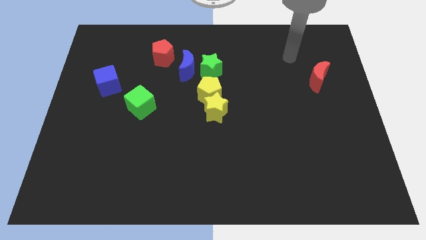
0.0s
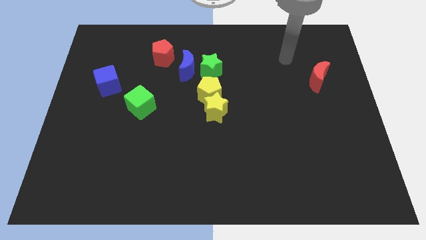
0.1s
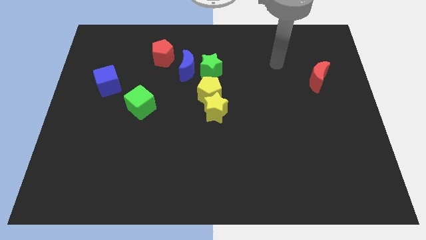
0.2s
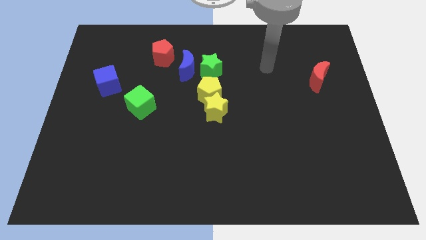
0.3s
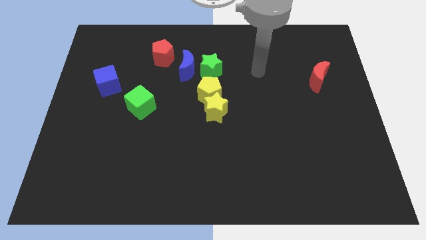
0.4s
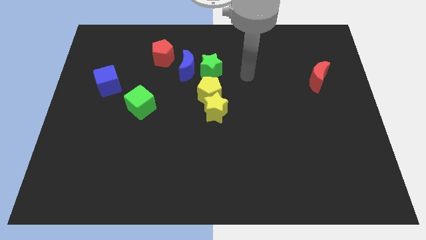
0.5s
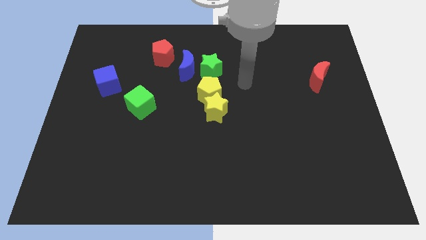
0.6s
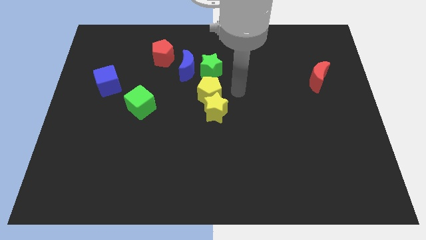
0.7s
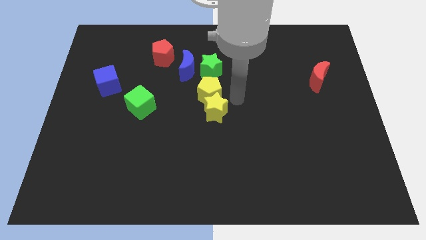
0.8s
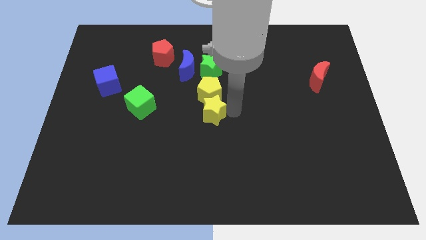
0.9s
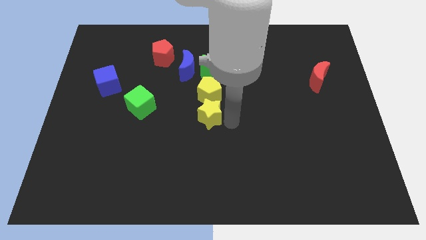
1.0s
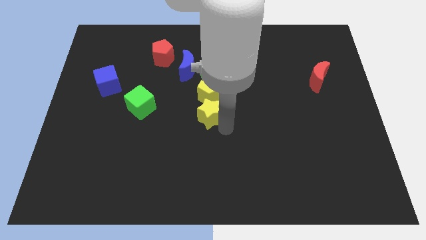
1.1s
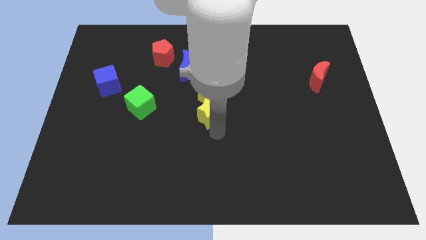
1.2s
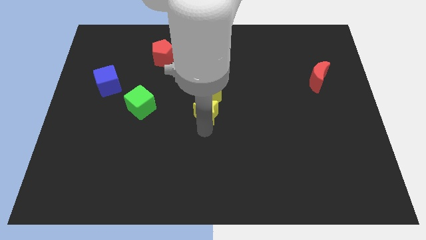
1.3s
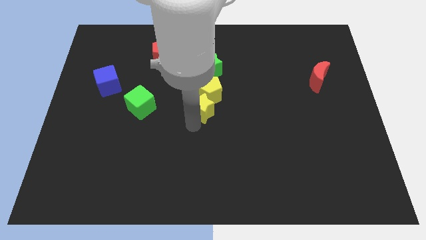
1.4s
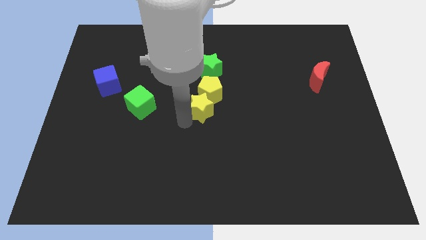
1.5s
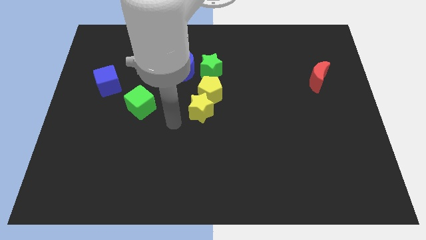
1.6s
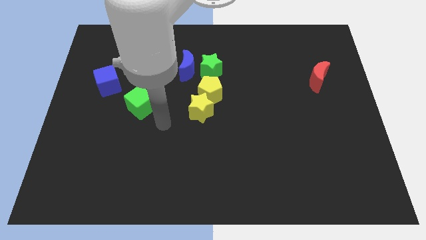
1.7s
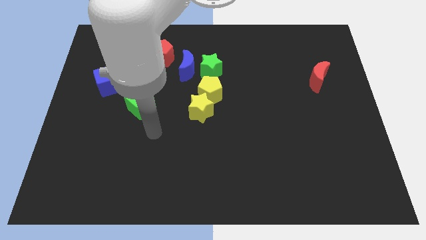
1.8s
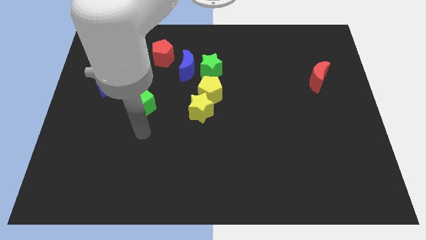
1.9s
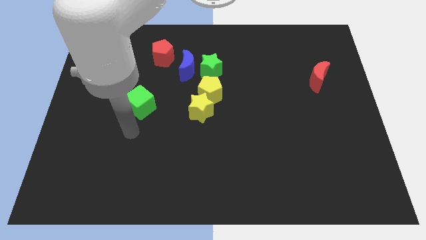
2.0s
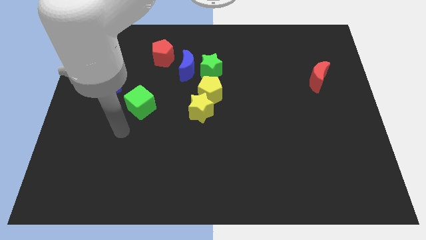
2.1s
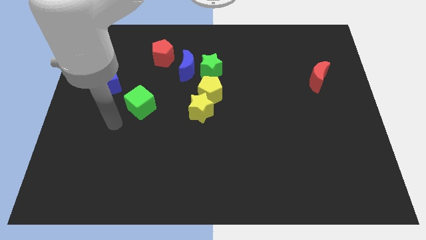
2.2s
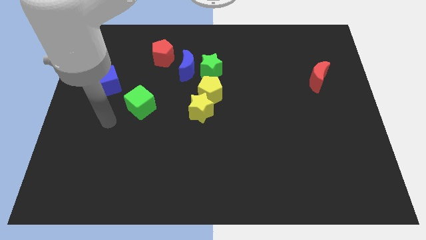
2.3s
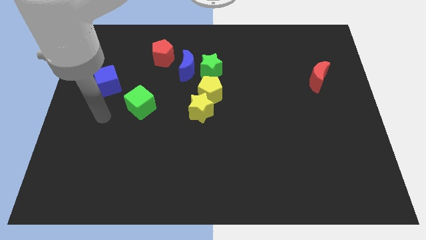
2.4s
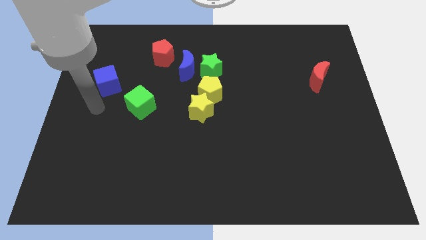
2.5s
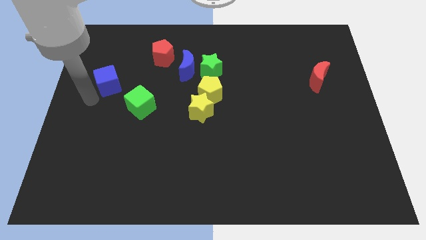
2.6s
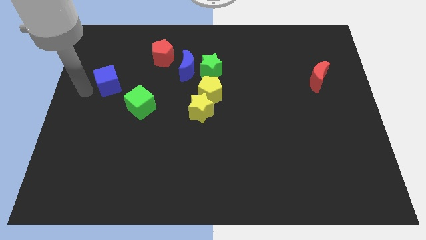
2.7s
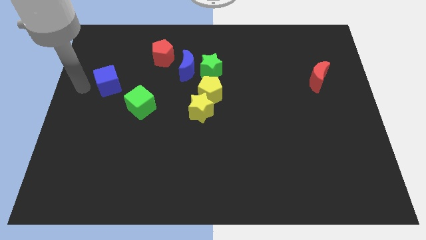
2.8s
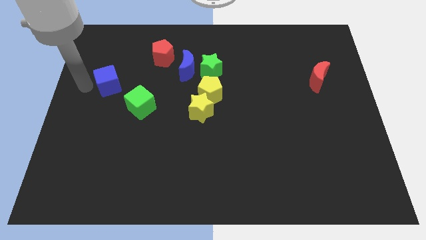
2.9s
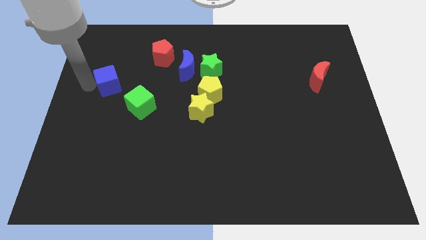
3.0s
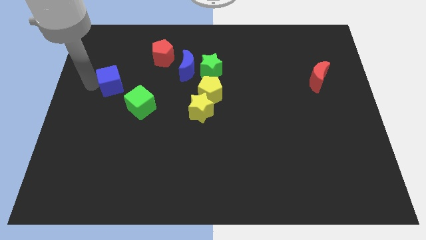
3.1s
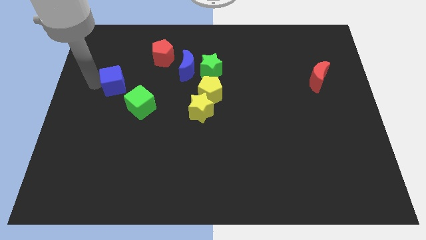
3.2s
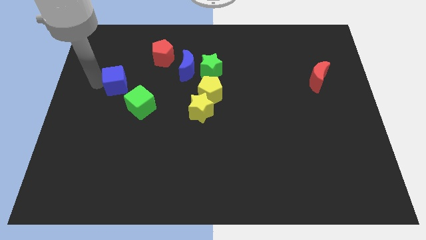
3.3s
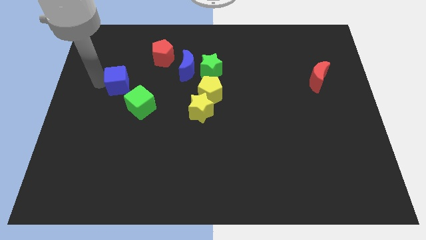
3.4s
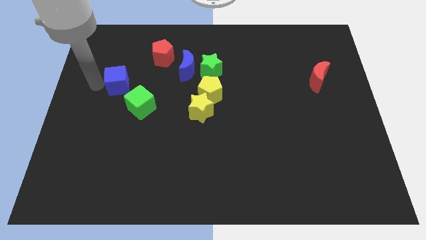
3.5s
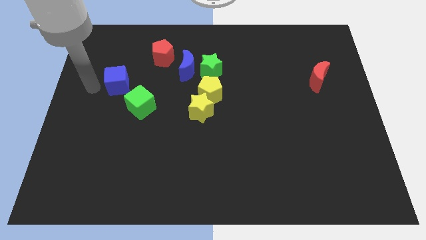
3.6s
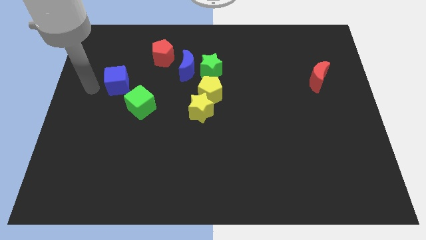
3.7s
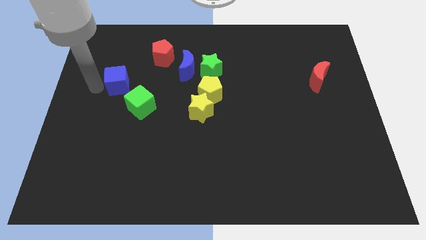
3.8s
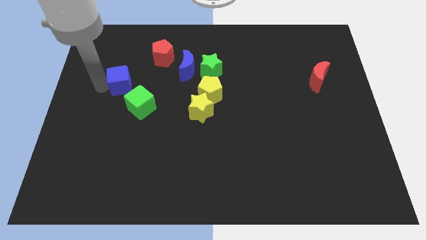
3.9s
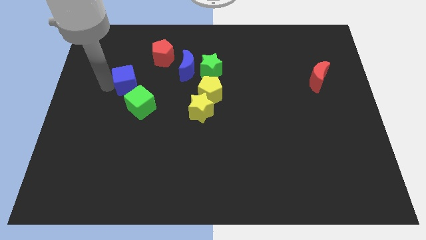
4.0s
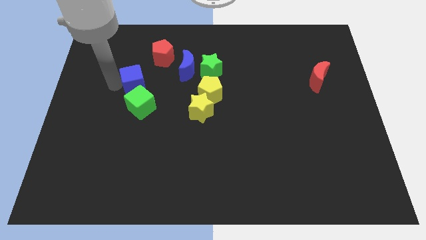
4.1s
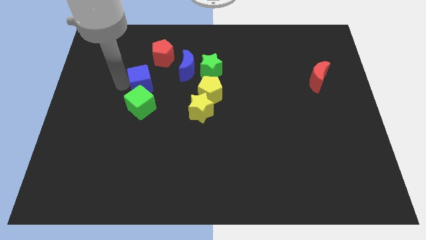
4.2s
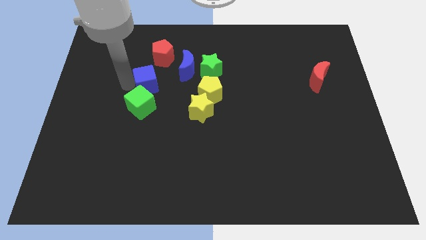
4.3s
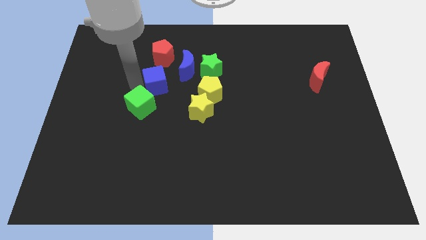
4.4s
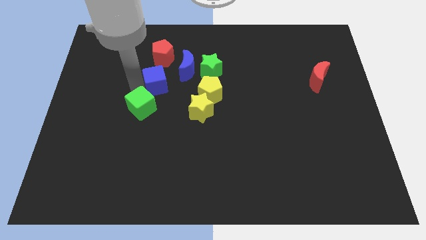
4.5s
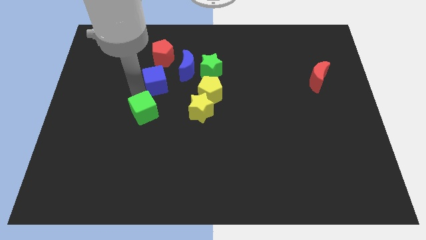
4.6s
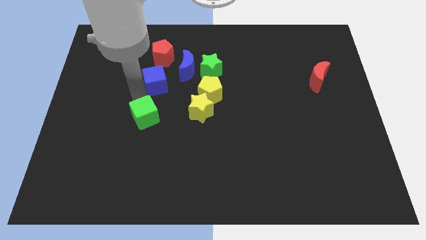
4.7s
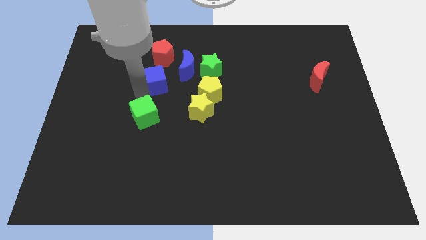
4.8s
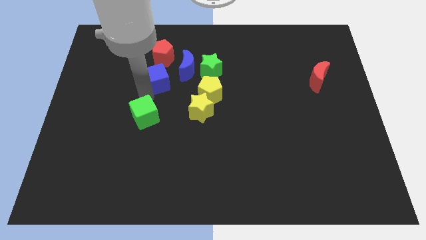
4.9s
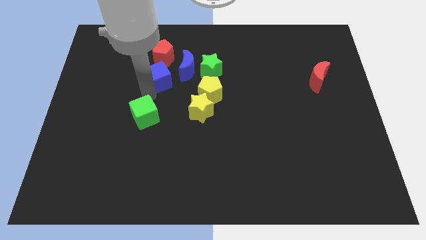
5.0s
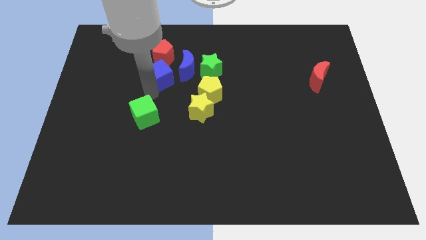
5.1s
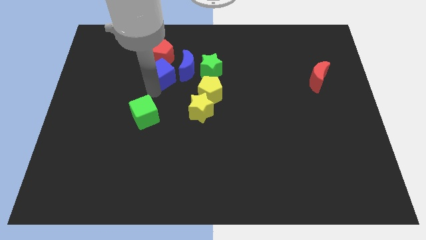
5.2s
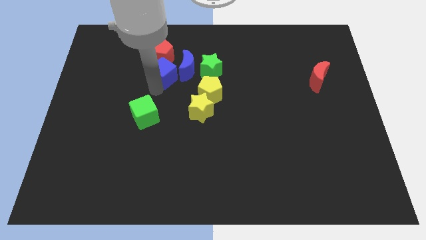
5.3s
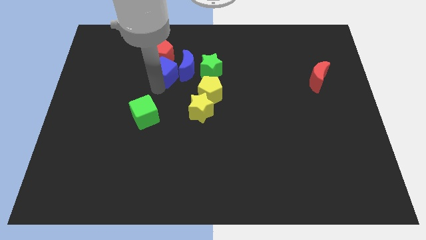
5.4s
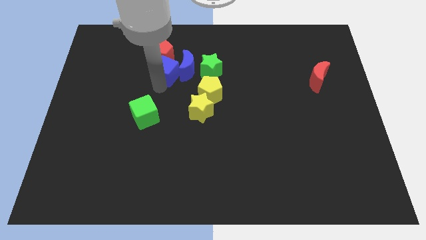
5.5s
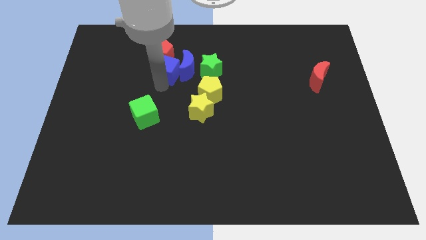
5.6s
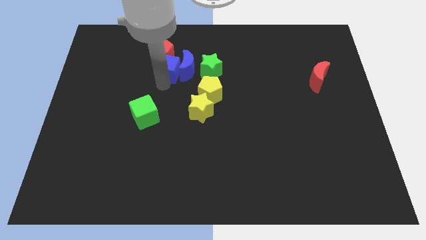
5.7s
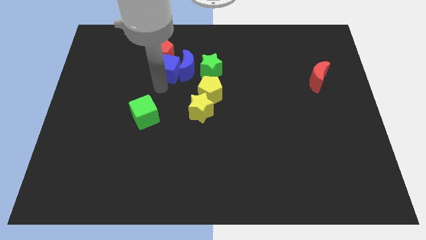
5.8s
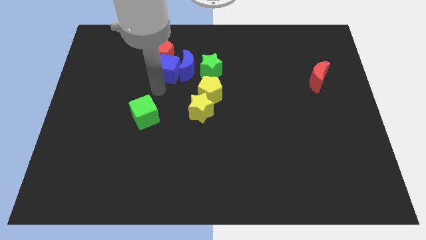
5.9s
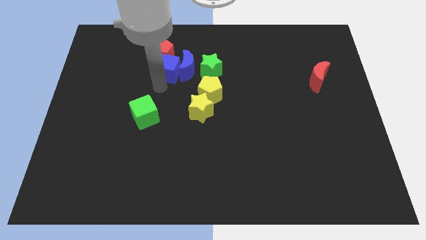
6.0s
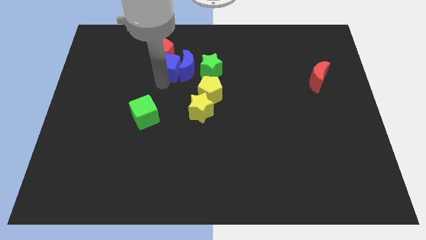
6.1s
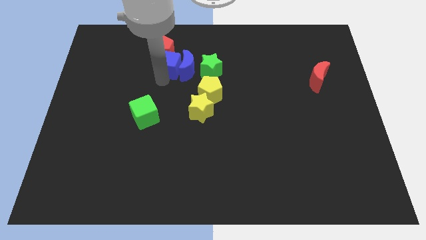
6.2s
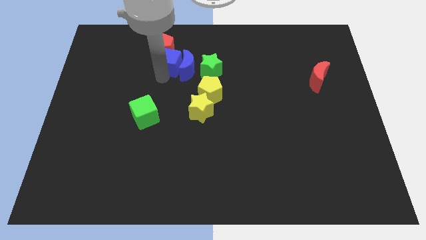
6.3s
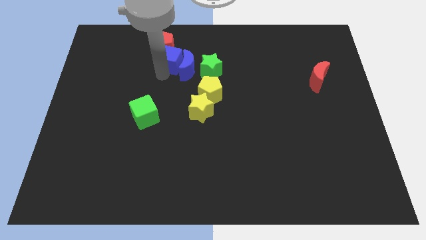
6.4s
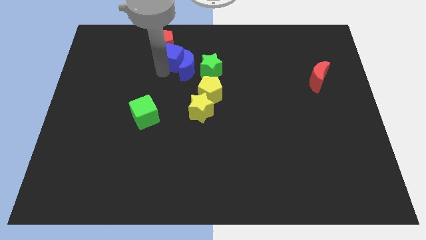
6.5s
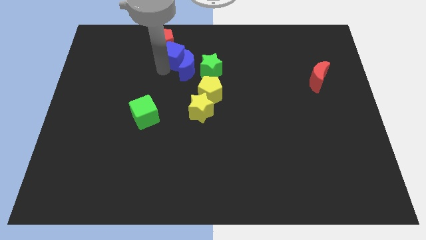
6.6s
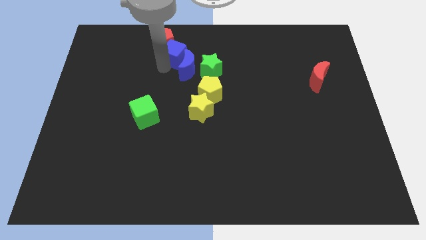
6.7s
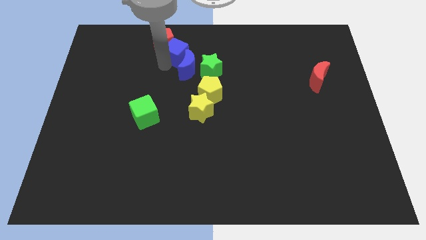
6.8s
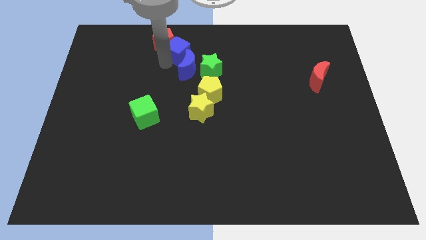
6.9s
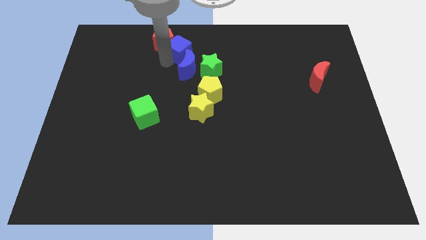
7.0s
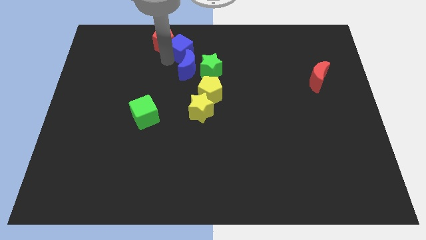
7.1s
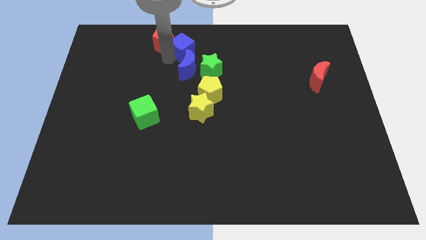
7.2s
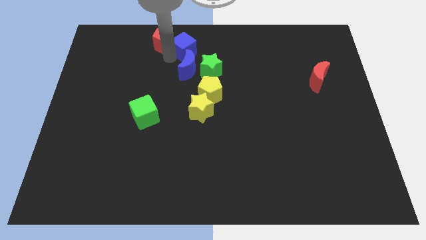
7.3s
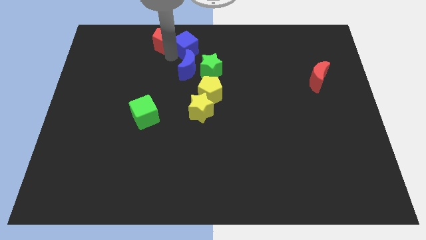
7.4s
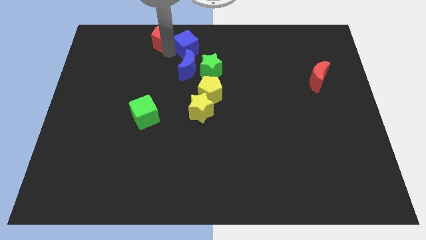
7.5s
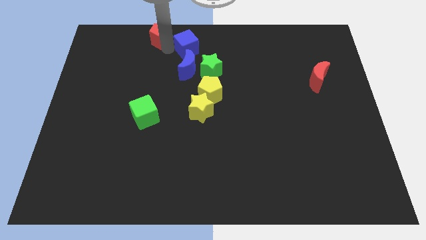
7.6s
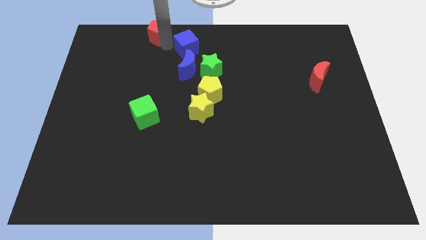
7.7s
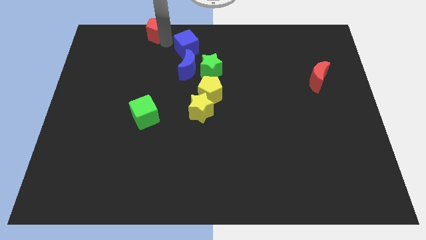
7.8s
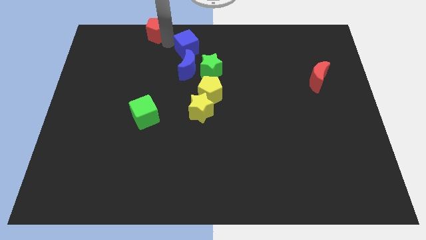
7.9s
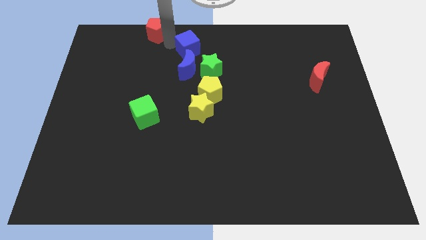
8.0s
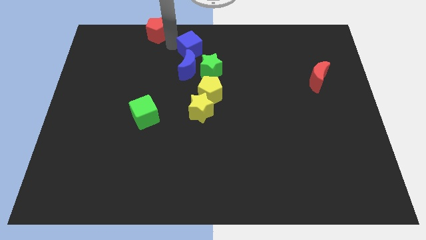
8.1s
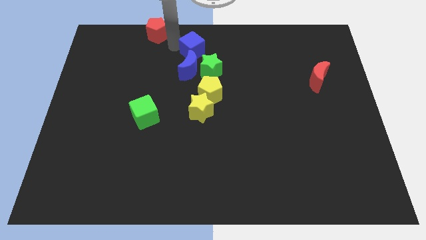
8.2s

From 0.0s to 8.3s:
move the blue cube to the top right side of the blue moon
